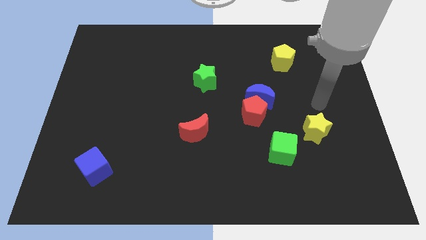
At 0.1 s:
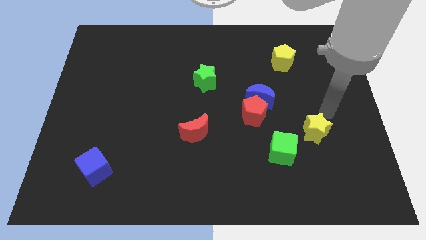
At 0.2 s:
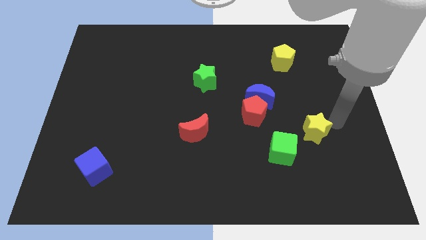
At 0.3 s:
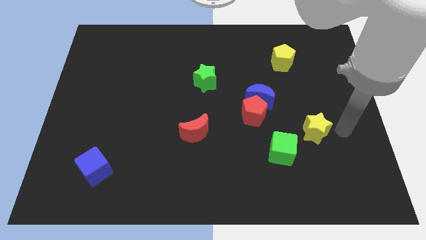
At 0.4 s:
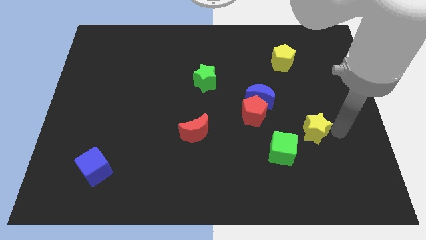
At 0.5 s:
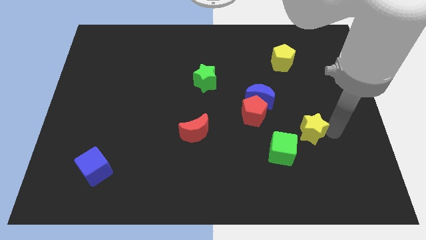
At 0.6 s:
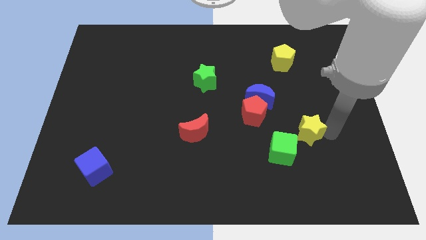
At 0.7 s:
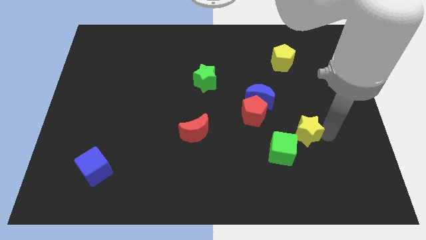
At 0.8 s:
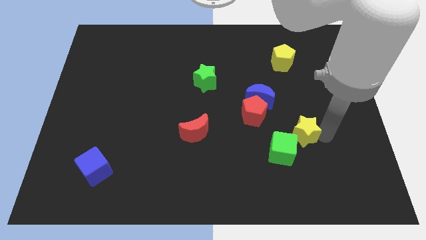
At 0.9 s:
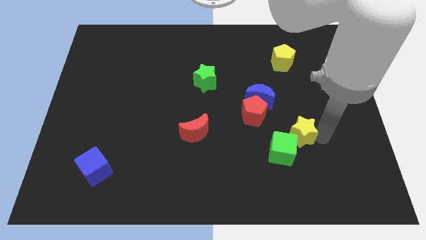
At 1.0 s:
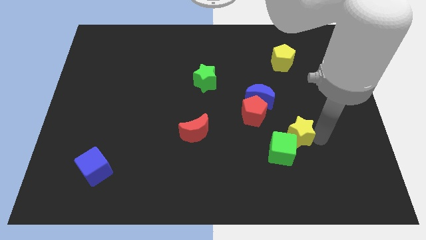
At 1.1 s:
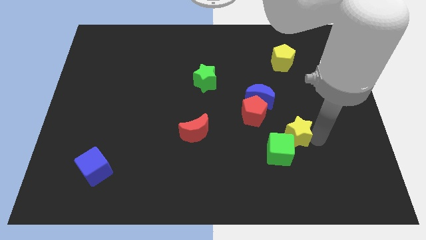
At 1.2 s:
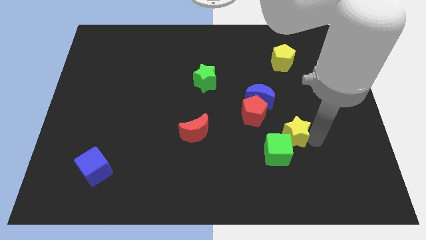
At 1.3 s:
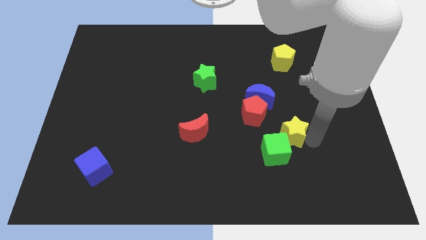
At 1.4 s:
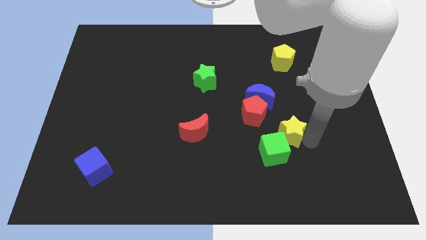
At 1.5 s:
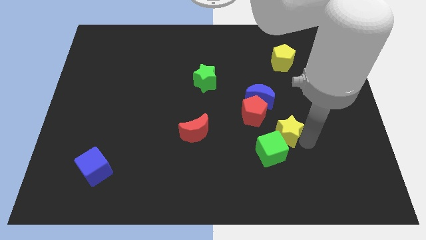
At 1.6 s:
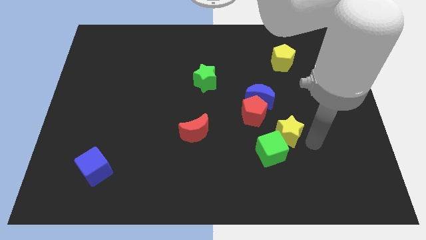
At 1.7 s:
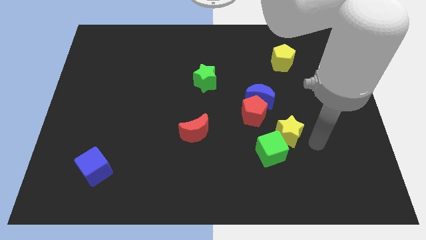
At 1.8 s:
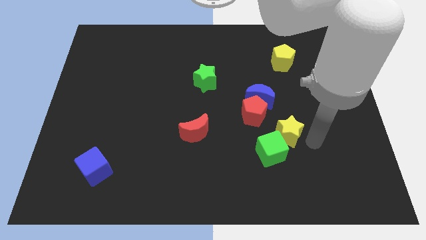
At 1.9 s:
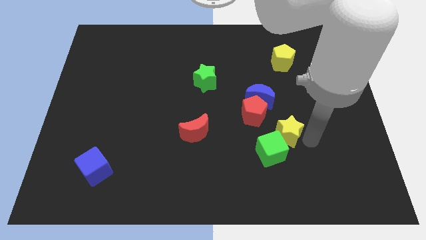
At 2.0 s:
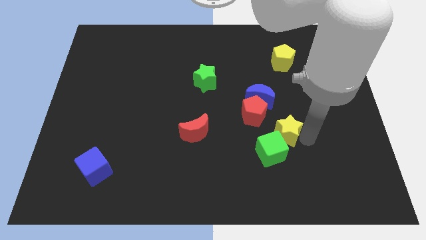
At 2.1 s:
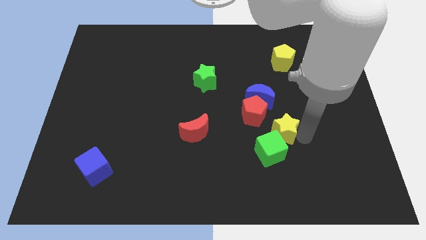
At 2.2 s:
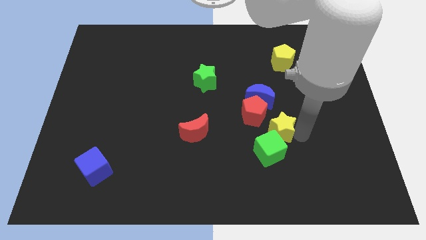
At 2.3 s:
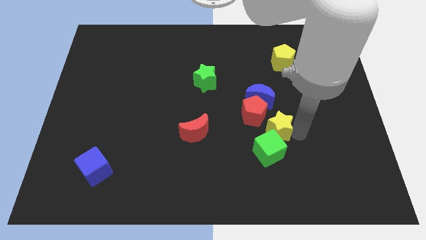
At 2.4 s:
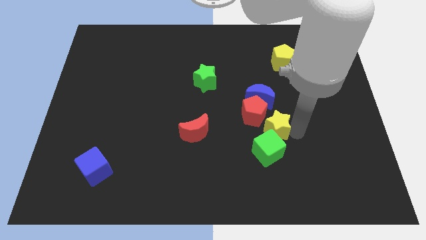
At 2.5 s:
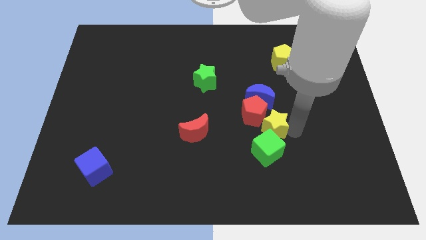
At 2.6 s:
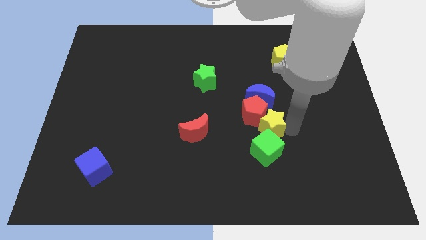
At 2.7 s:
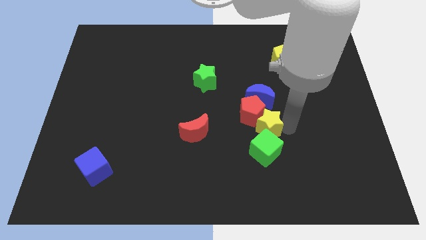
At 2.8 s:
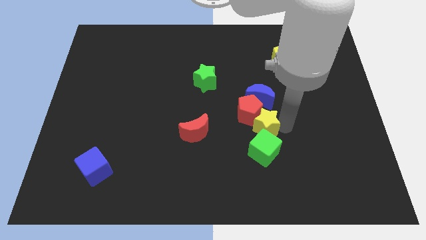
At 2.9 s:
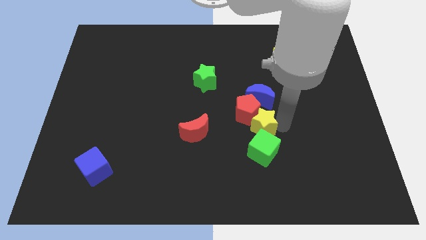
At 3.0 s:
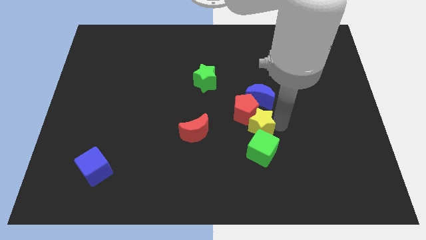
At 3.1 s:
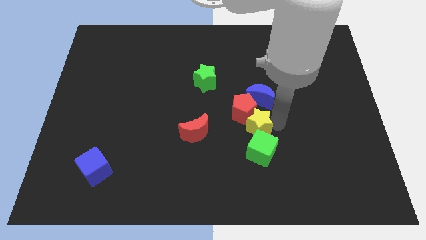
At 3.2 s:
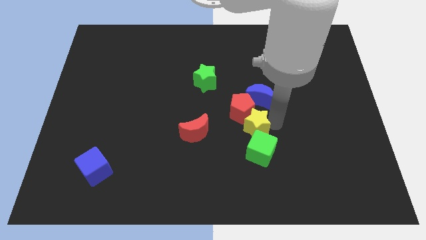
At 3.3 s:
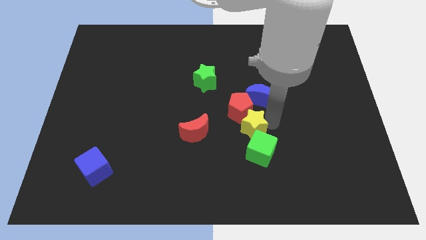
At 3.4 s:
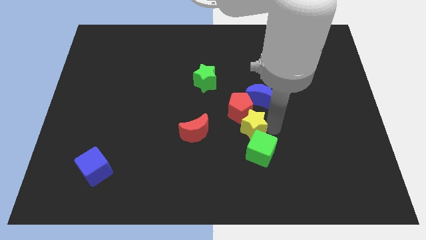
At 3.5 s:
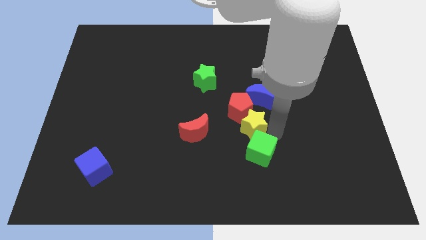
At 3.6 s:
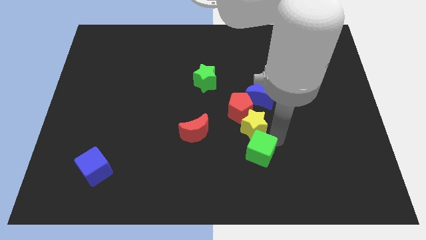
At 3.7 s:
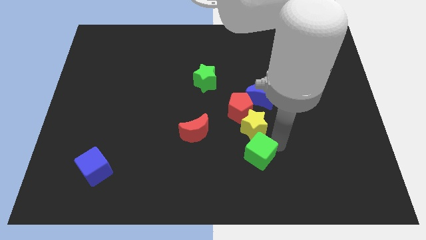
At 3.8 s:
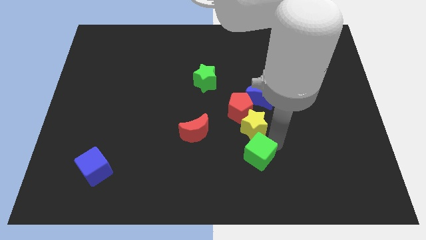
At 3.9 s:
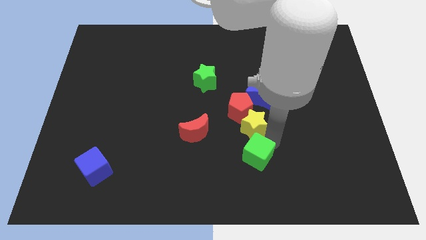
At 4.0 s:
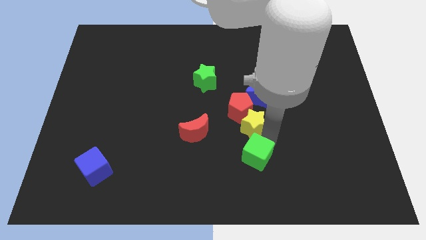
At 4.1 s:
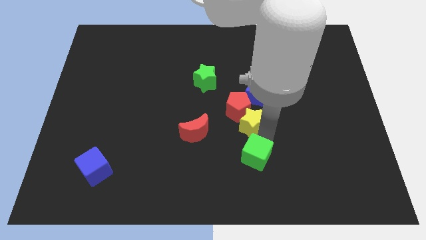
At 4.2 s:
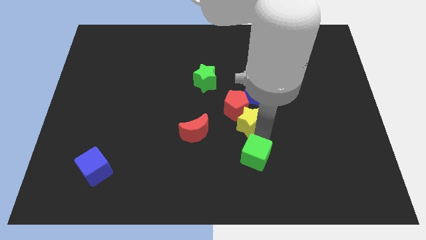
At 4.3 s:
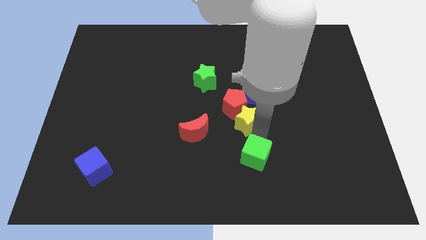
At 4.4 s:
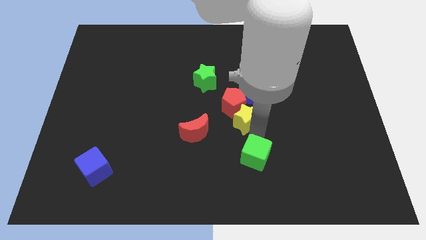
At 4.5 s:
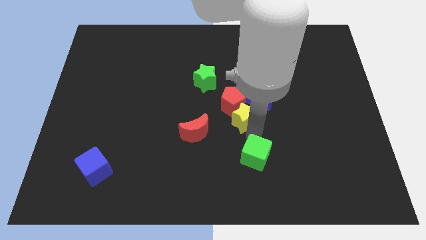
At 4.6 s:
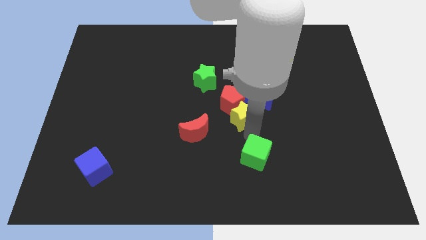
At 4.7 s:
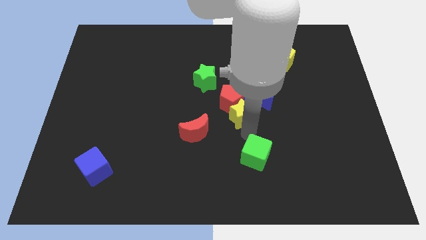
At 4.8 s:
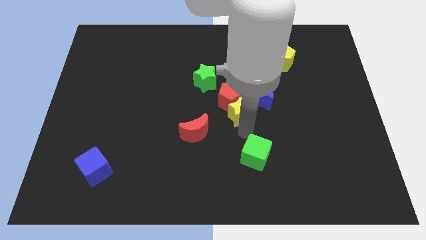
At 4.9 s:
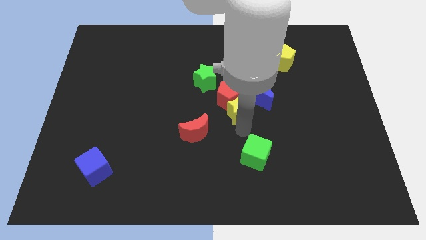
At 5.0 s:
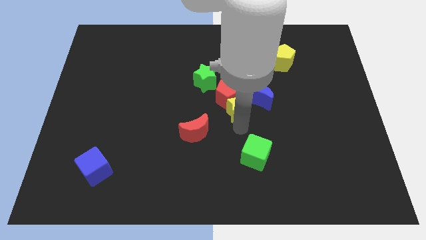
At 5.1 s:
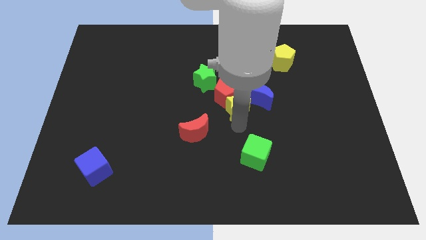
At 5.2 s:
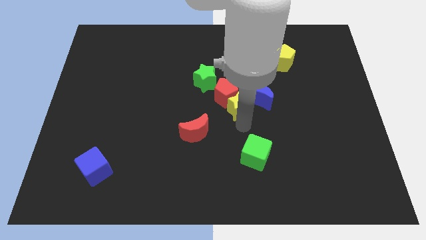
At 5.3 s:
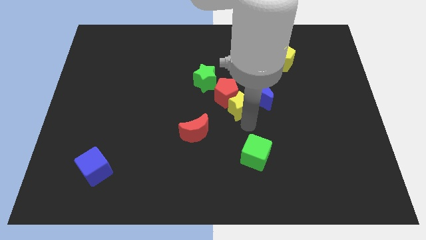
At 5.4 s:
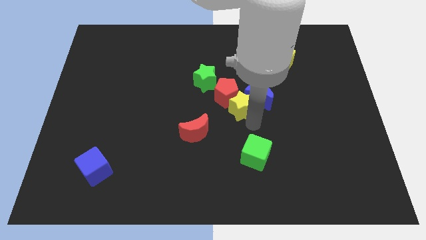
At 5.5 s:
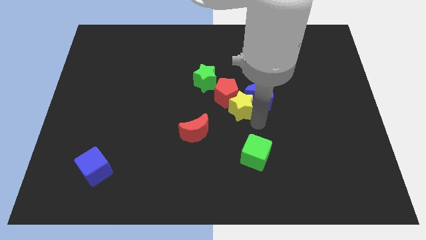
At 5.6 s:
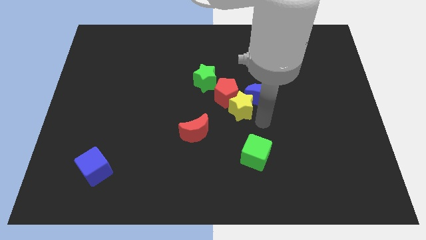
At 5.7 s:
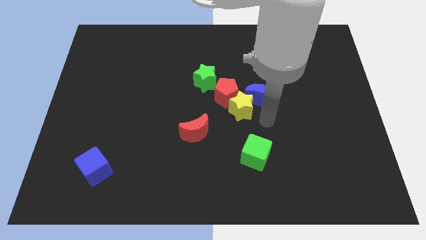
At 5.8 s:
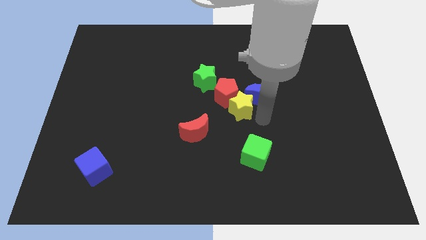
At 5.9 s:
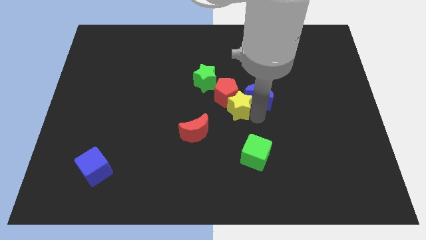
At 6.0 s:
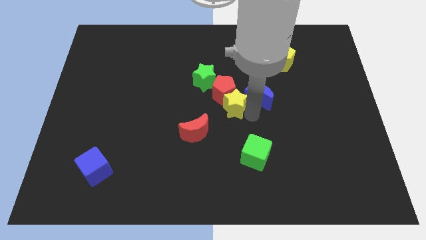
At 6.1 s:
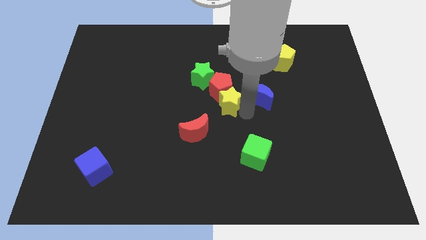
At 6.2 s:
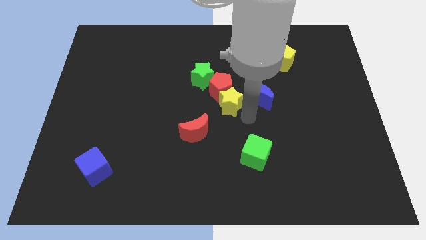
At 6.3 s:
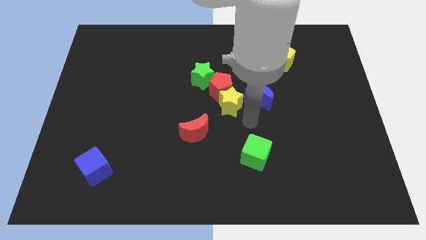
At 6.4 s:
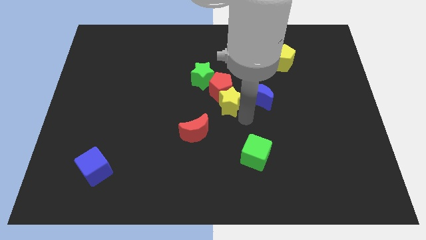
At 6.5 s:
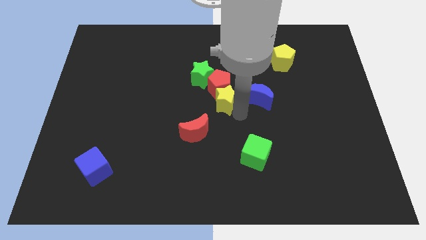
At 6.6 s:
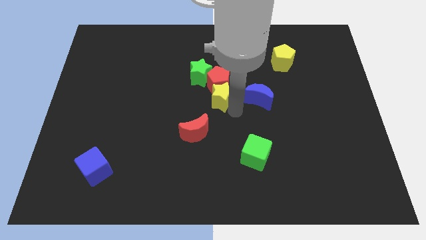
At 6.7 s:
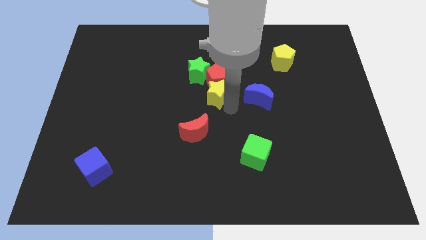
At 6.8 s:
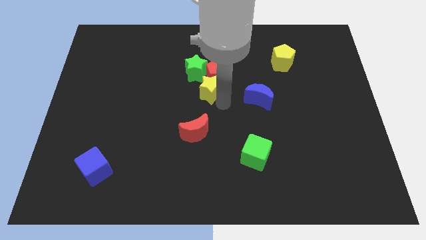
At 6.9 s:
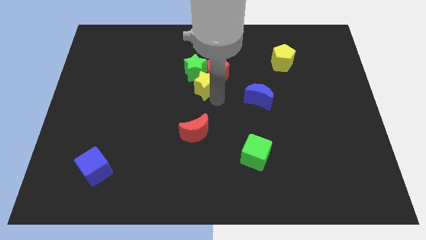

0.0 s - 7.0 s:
put the yellow star close to the green star

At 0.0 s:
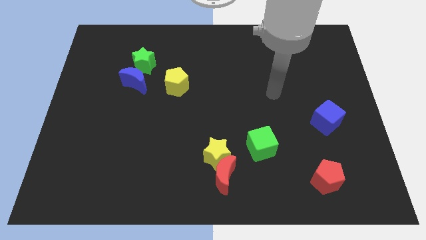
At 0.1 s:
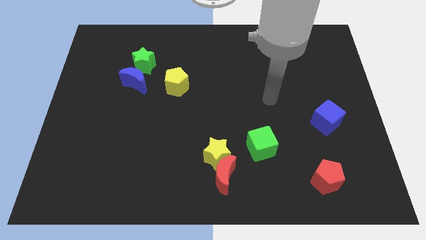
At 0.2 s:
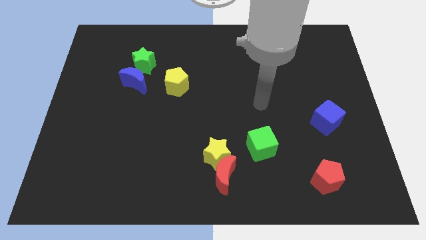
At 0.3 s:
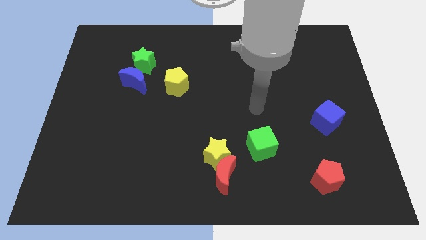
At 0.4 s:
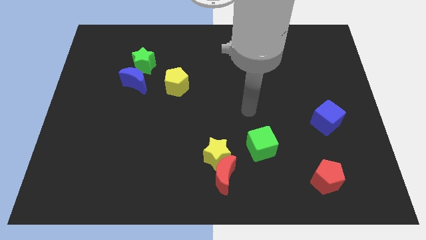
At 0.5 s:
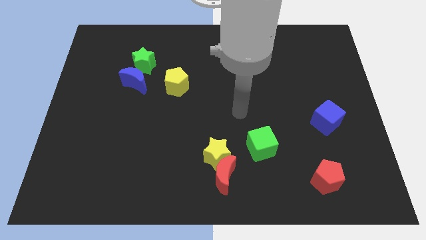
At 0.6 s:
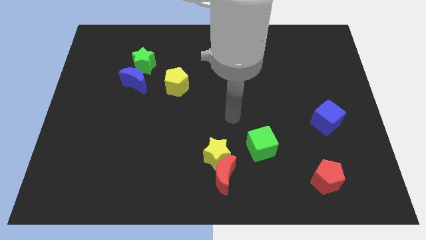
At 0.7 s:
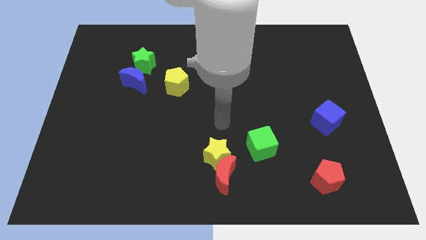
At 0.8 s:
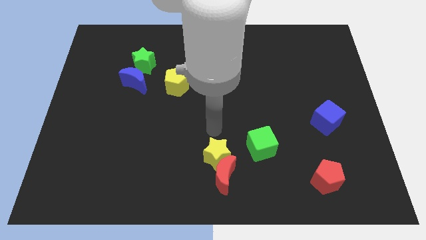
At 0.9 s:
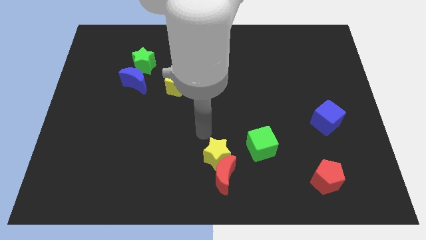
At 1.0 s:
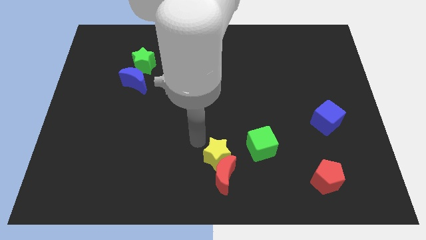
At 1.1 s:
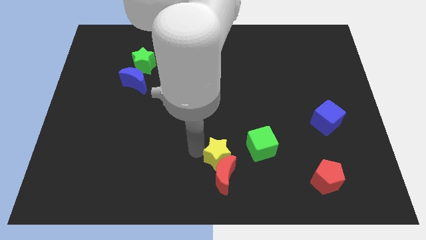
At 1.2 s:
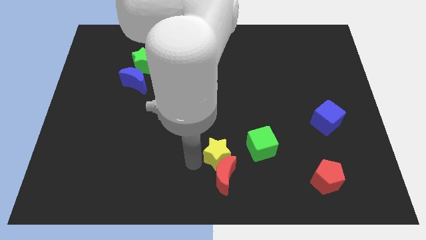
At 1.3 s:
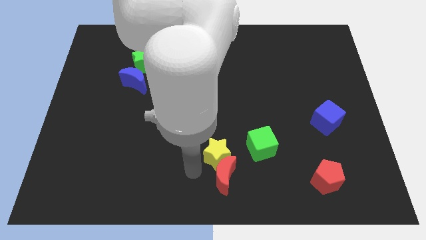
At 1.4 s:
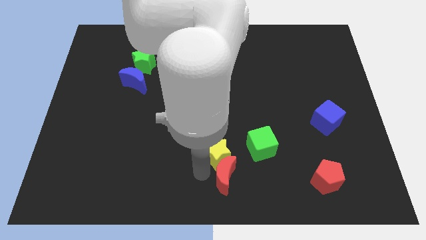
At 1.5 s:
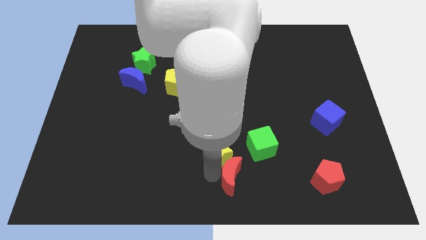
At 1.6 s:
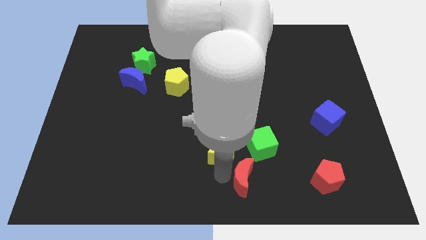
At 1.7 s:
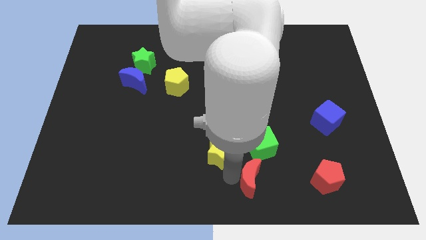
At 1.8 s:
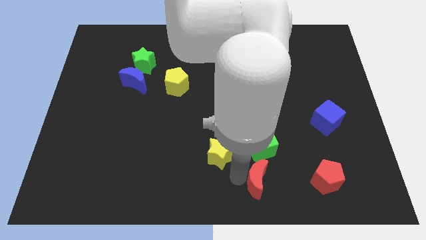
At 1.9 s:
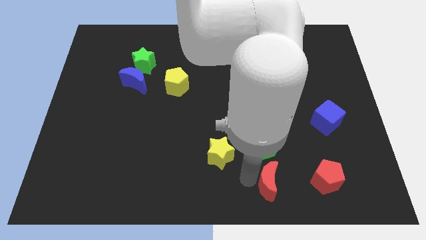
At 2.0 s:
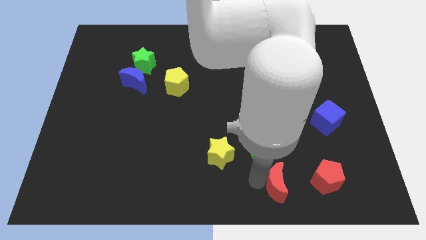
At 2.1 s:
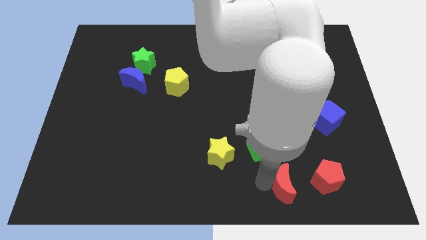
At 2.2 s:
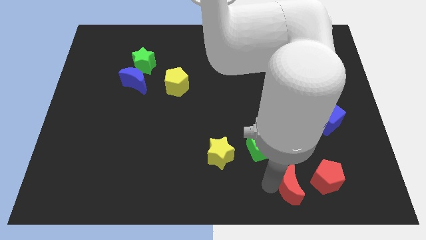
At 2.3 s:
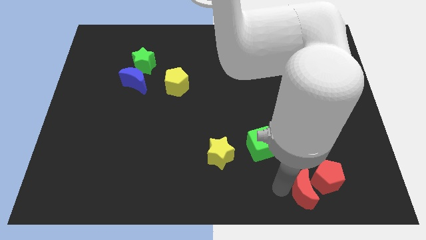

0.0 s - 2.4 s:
slide the red moon towards the red pentagon
